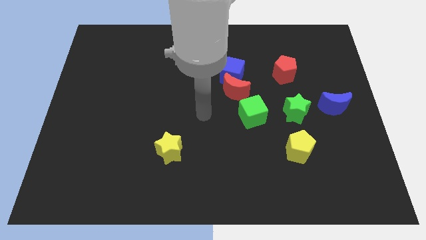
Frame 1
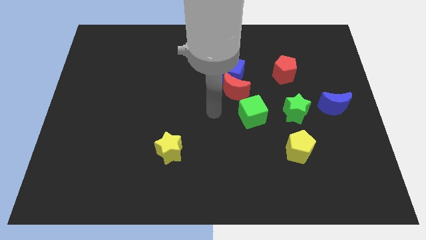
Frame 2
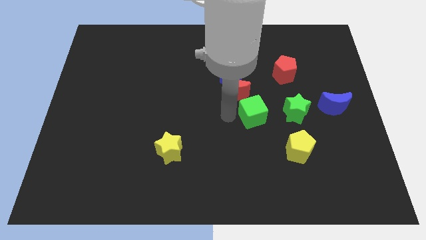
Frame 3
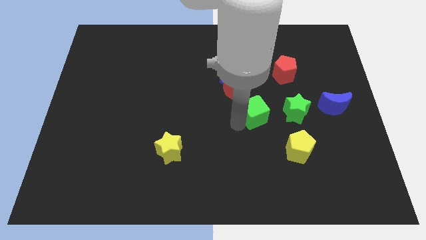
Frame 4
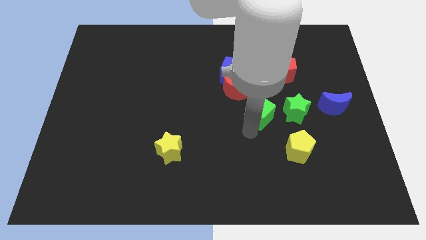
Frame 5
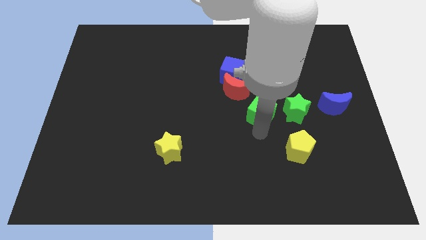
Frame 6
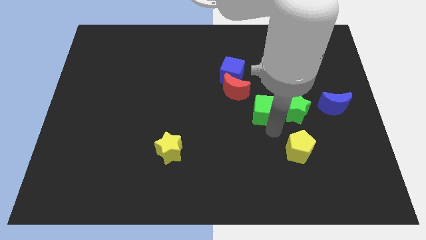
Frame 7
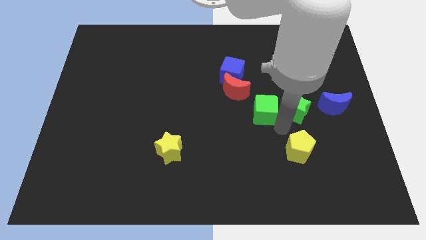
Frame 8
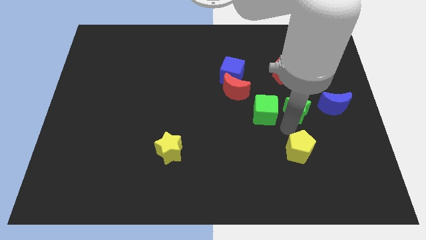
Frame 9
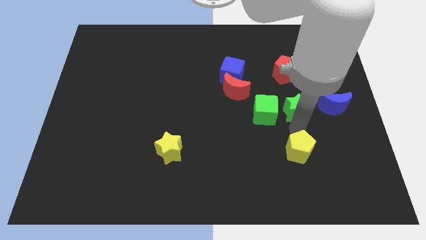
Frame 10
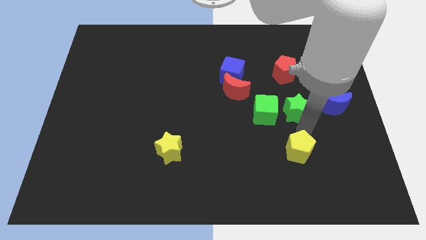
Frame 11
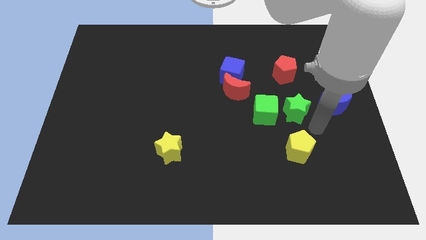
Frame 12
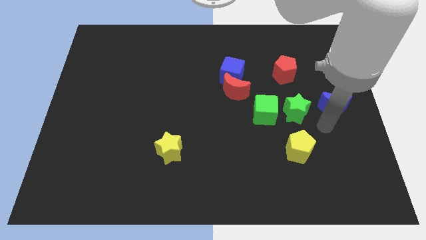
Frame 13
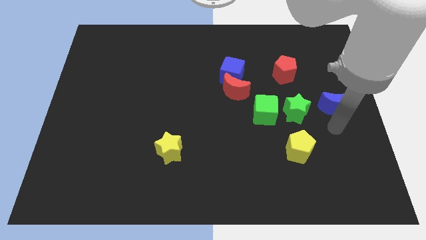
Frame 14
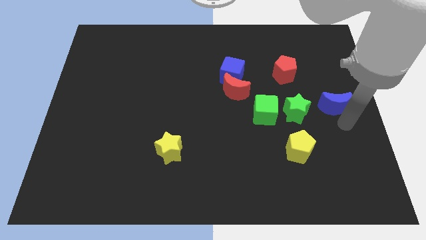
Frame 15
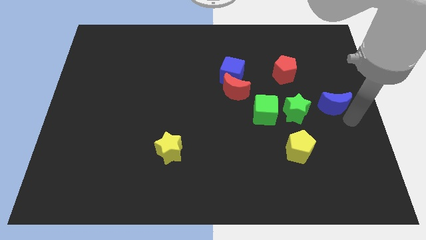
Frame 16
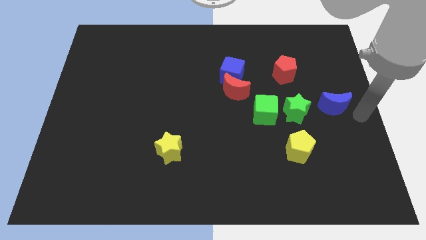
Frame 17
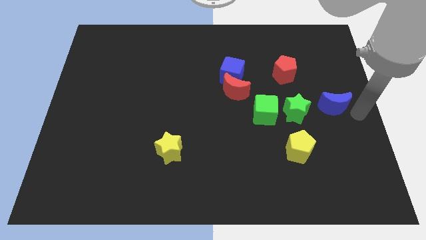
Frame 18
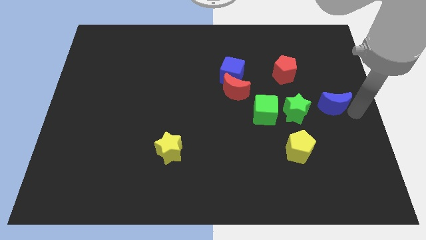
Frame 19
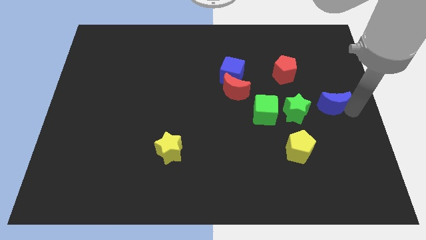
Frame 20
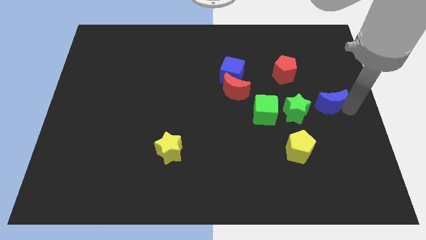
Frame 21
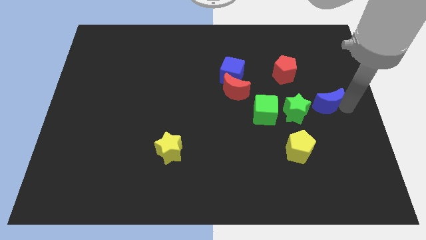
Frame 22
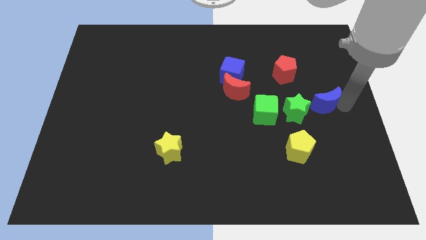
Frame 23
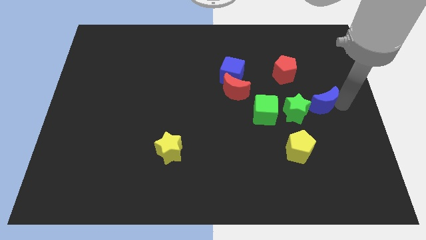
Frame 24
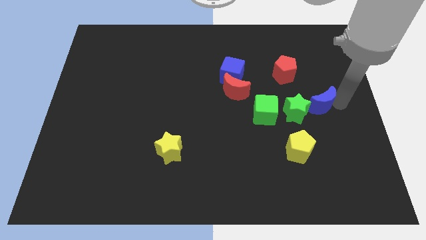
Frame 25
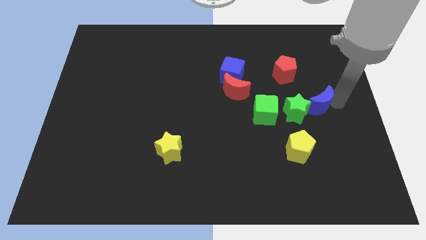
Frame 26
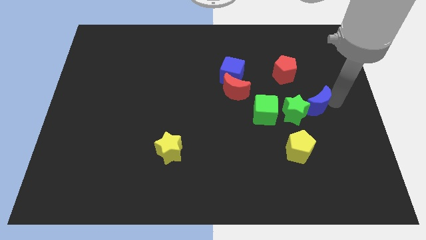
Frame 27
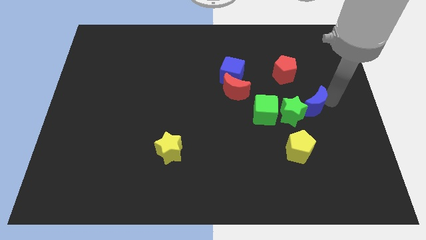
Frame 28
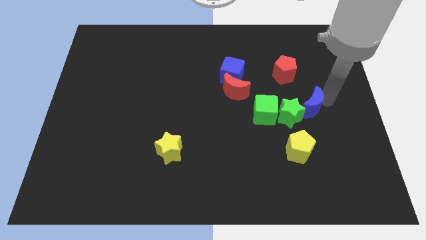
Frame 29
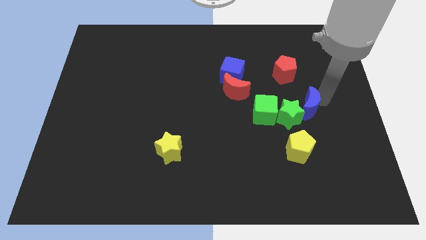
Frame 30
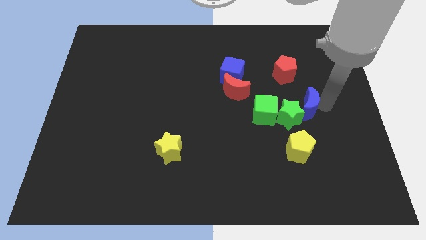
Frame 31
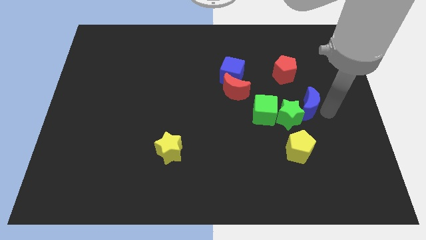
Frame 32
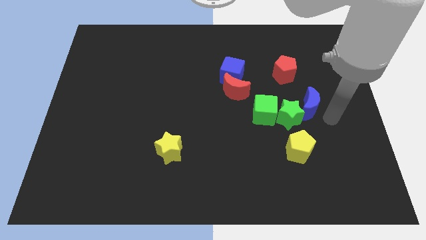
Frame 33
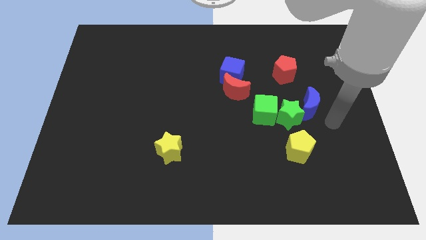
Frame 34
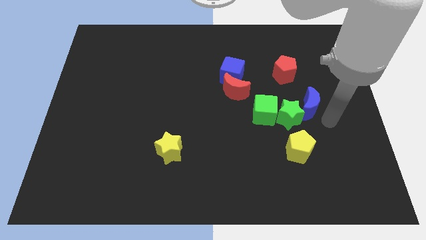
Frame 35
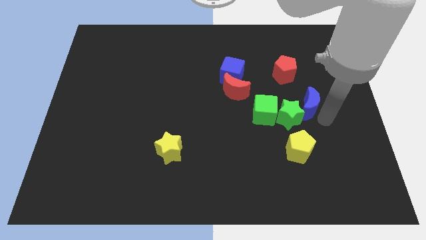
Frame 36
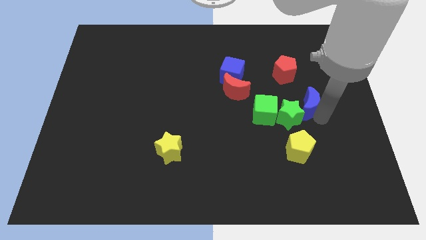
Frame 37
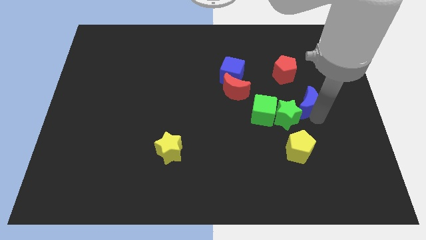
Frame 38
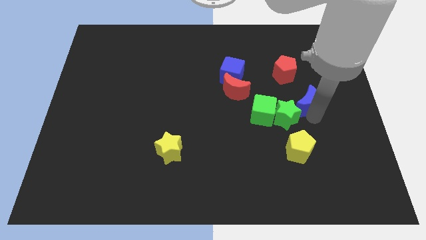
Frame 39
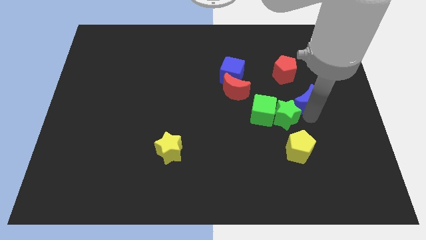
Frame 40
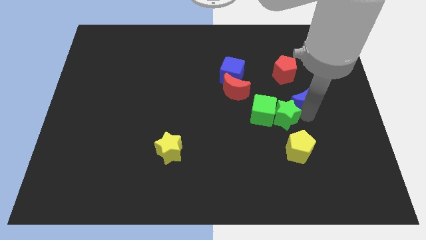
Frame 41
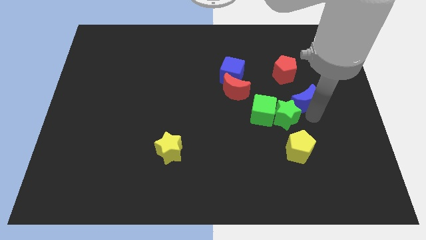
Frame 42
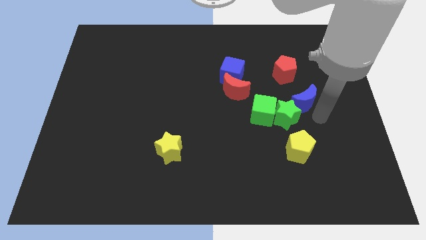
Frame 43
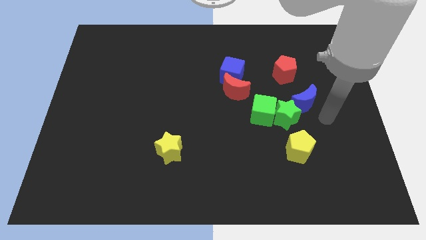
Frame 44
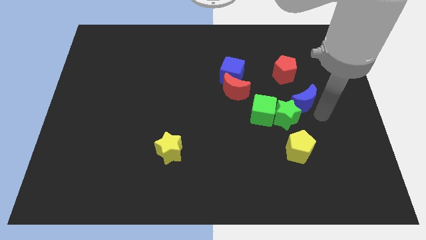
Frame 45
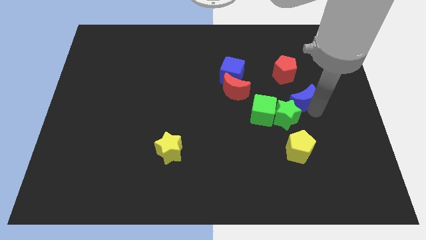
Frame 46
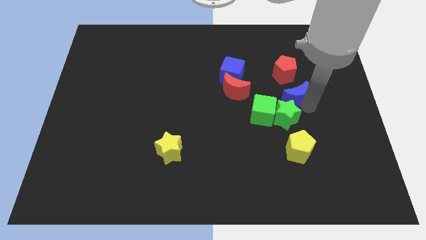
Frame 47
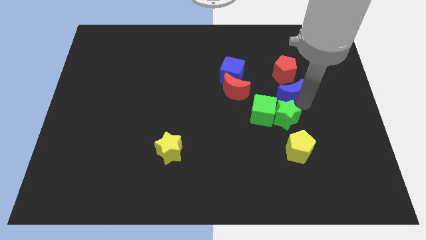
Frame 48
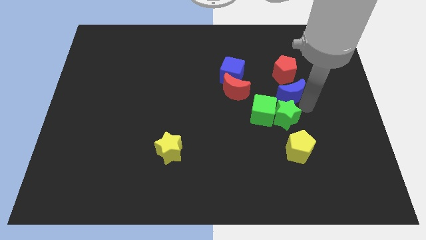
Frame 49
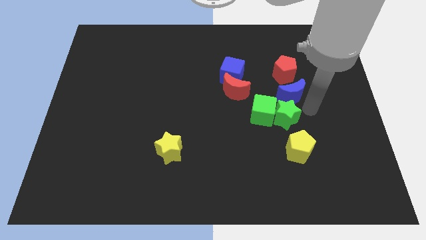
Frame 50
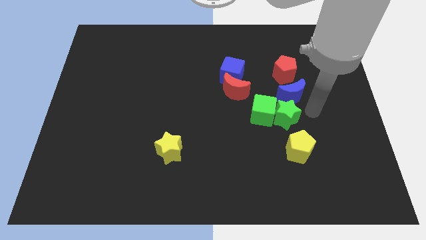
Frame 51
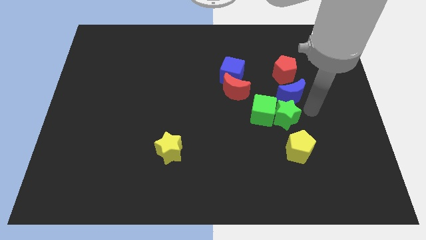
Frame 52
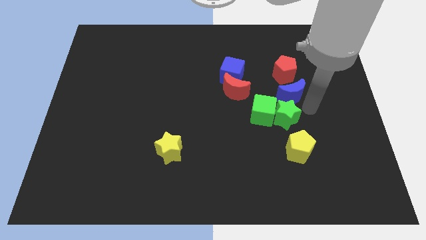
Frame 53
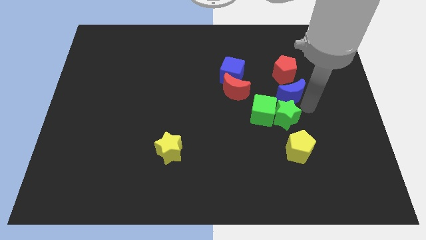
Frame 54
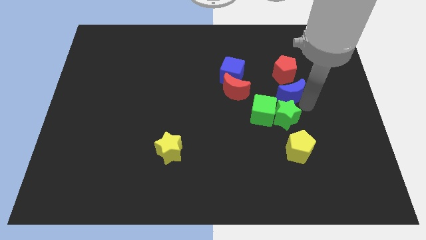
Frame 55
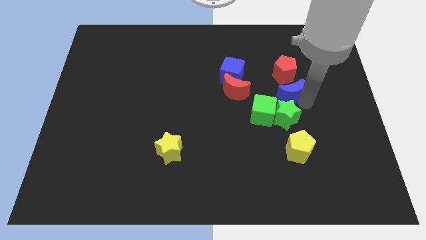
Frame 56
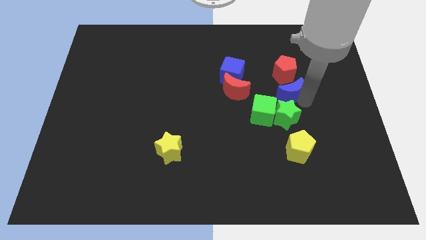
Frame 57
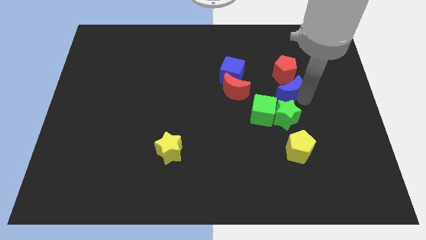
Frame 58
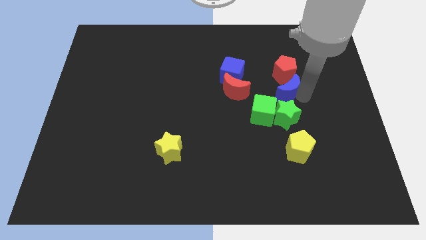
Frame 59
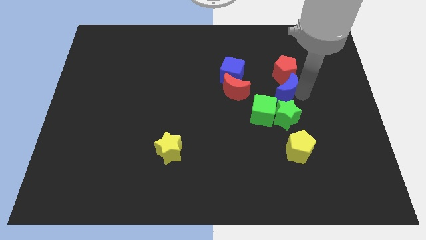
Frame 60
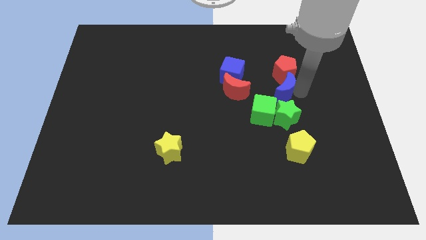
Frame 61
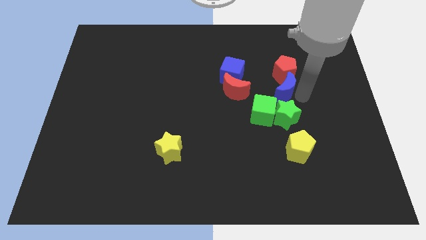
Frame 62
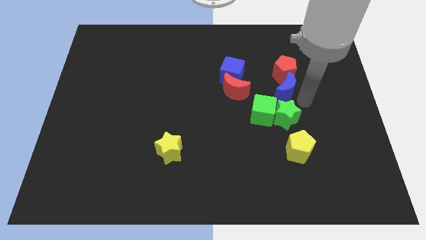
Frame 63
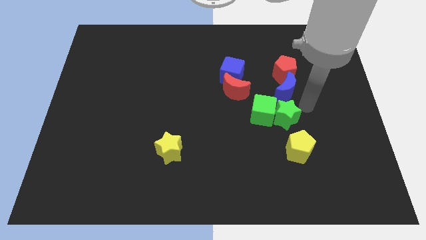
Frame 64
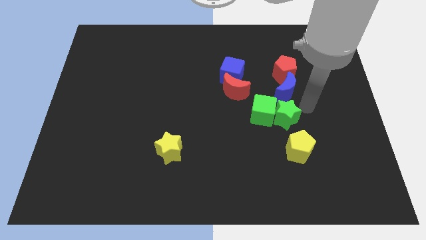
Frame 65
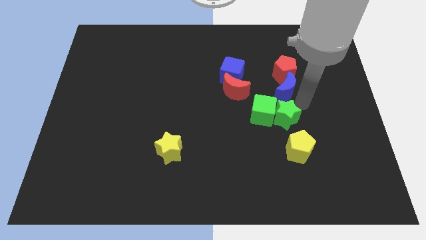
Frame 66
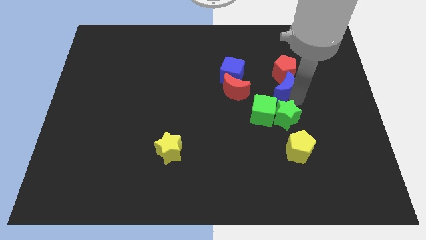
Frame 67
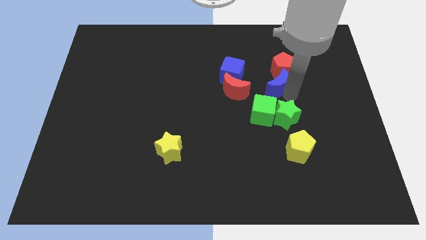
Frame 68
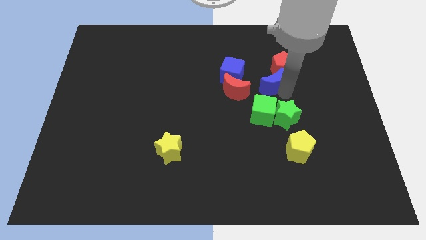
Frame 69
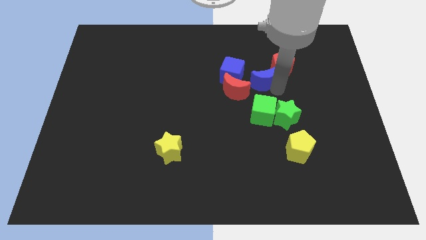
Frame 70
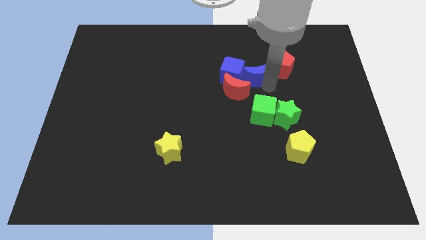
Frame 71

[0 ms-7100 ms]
push the blue moon to the center
